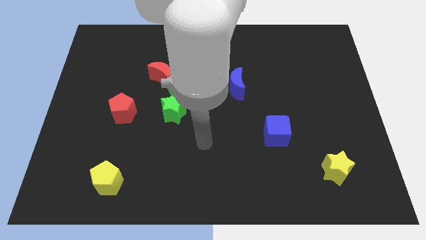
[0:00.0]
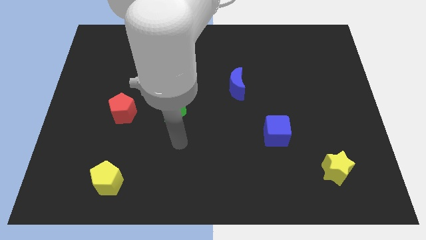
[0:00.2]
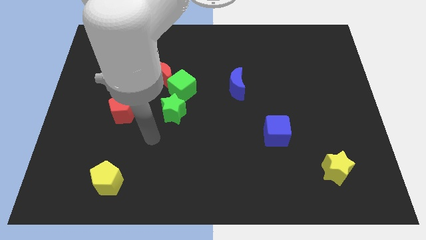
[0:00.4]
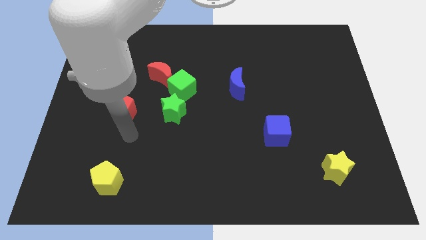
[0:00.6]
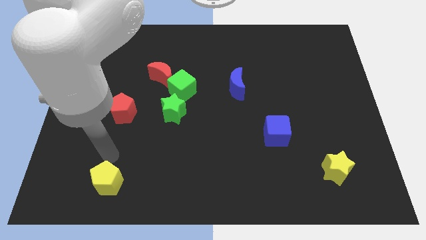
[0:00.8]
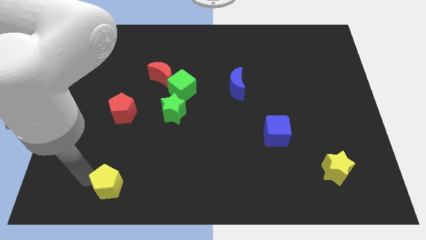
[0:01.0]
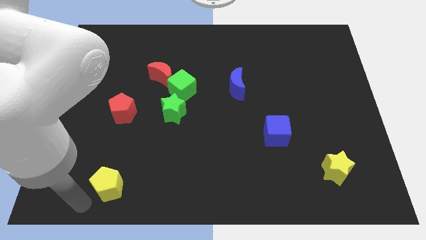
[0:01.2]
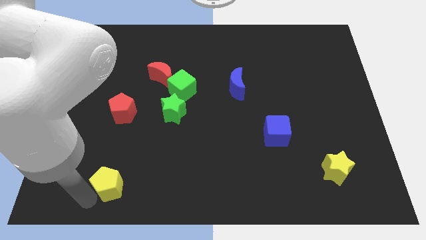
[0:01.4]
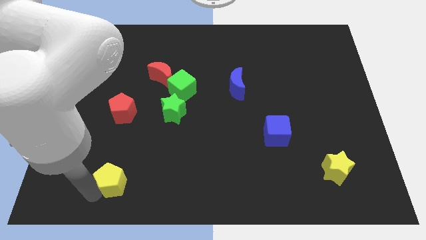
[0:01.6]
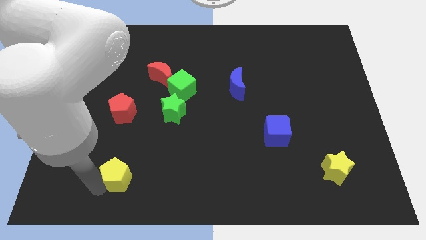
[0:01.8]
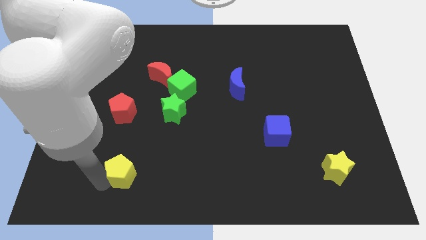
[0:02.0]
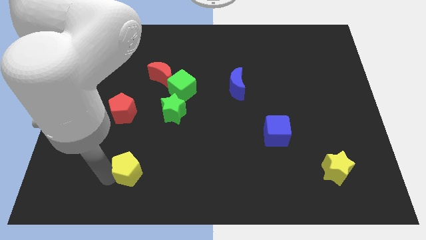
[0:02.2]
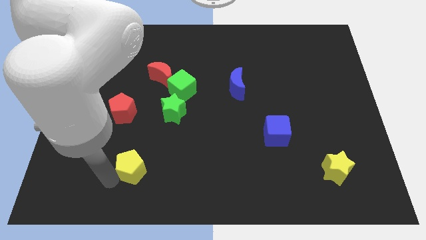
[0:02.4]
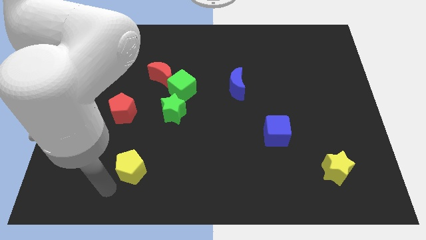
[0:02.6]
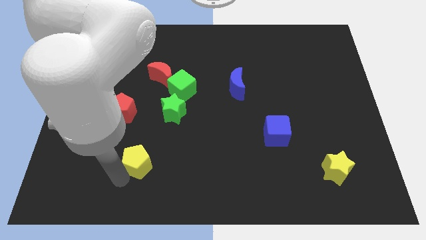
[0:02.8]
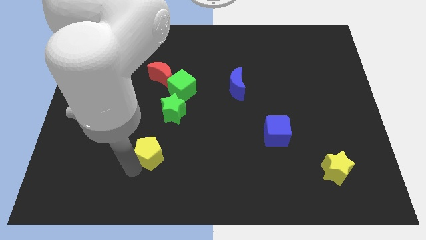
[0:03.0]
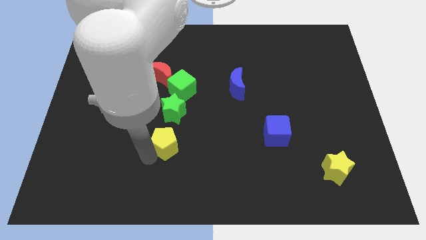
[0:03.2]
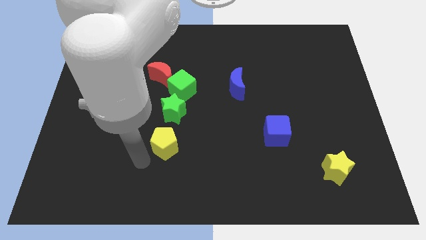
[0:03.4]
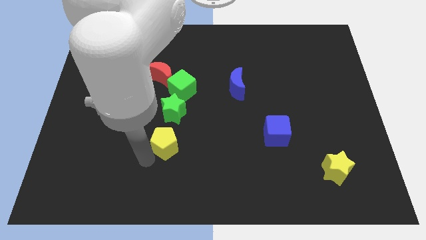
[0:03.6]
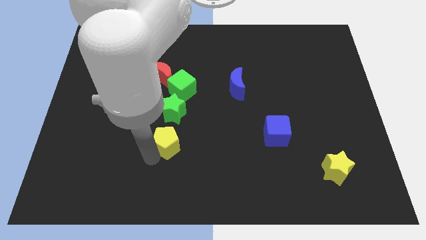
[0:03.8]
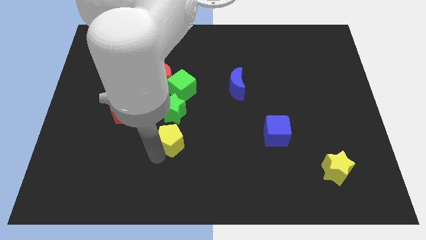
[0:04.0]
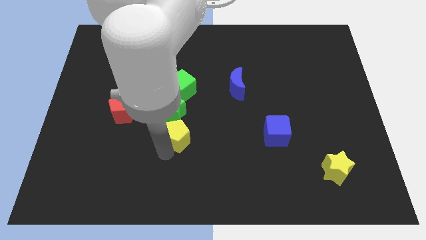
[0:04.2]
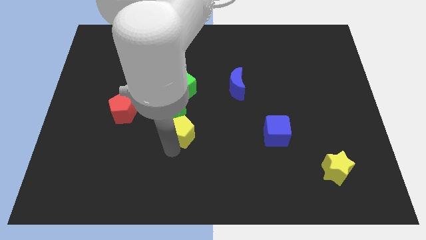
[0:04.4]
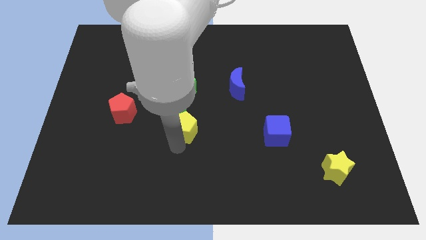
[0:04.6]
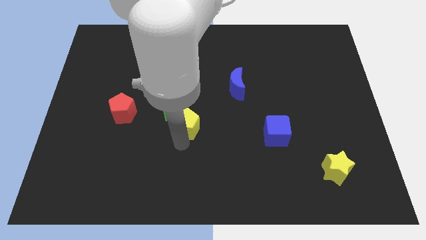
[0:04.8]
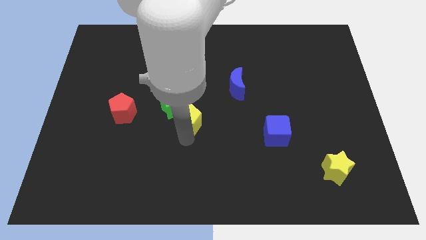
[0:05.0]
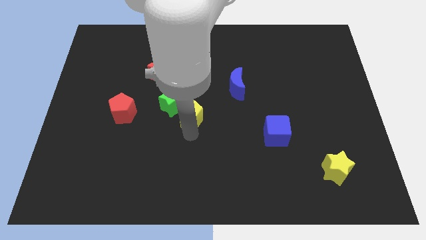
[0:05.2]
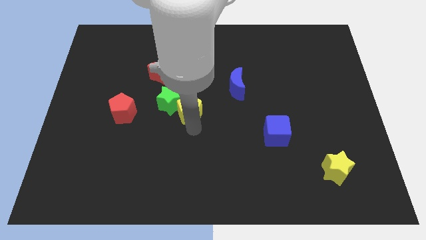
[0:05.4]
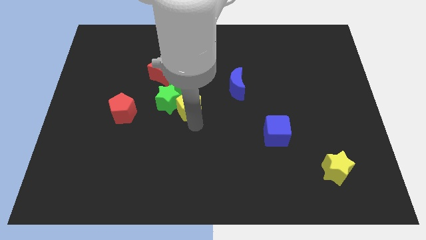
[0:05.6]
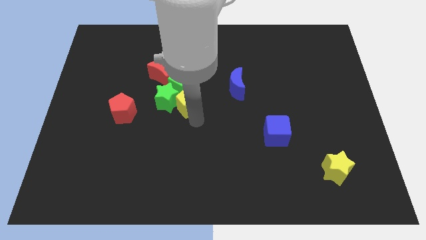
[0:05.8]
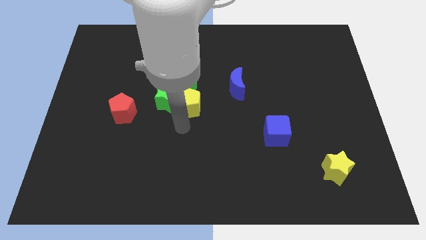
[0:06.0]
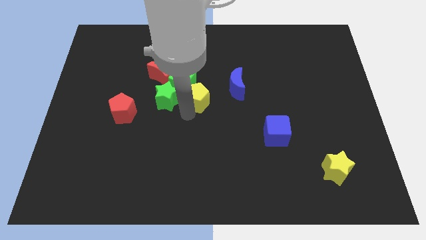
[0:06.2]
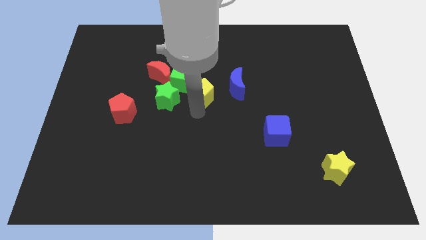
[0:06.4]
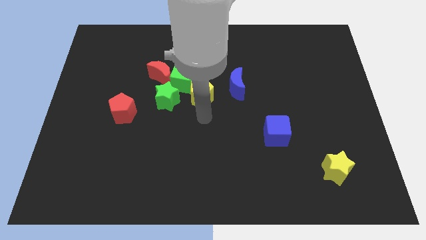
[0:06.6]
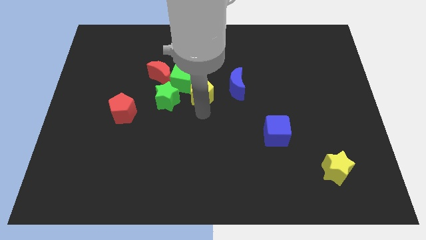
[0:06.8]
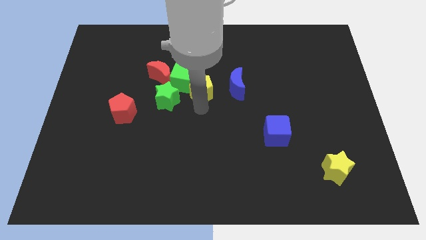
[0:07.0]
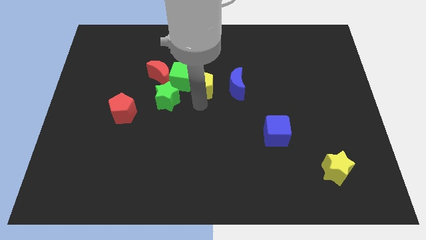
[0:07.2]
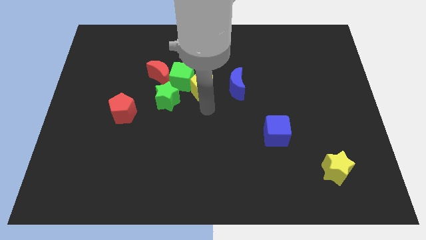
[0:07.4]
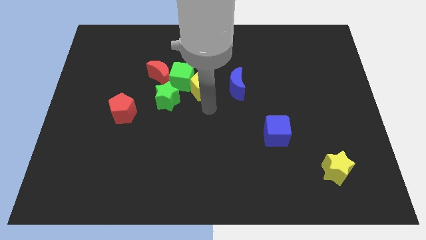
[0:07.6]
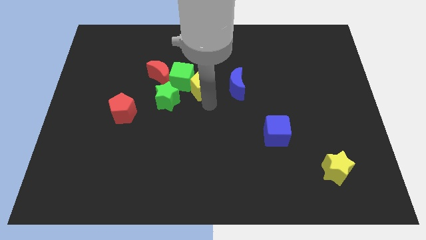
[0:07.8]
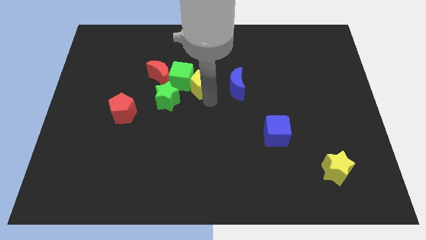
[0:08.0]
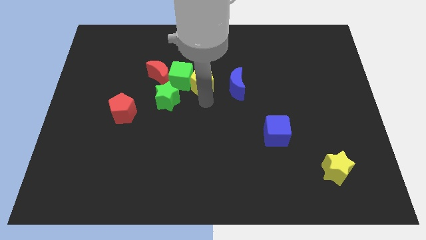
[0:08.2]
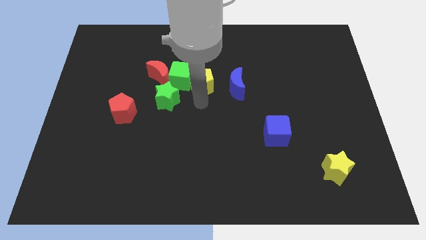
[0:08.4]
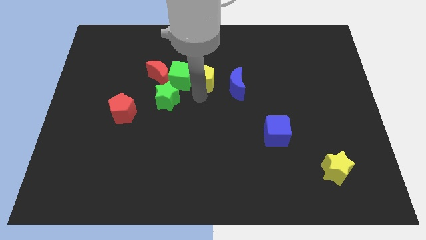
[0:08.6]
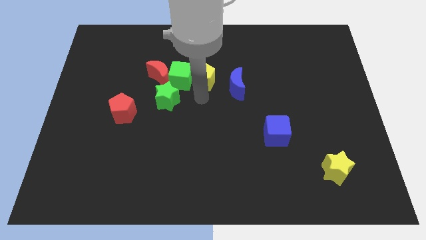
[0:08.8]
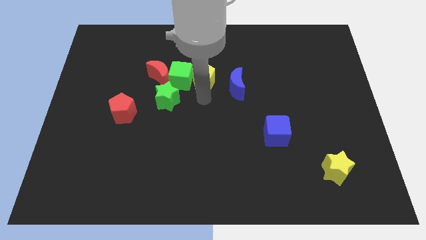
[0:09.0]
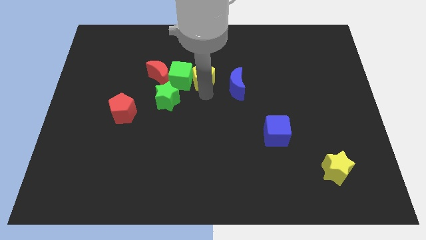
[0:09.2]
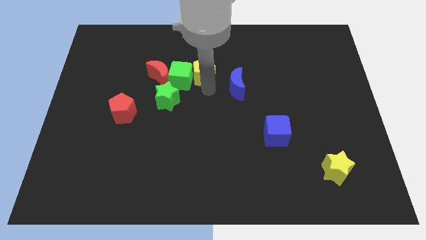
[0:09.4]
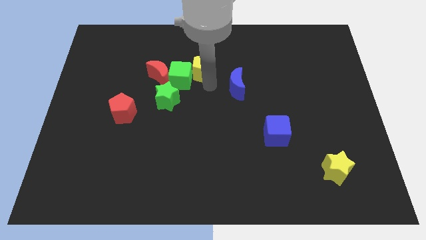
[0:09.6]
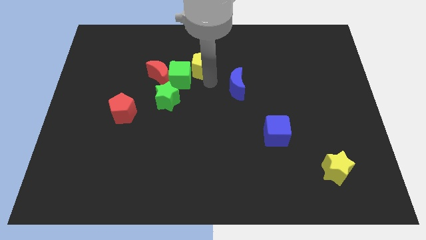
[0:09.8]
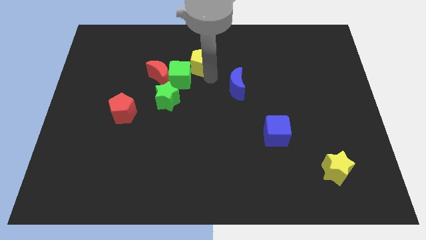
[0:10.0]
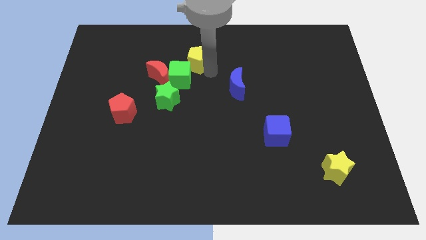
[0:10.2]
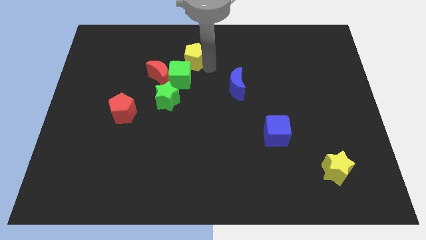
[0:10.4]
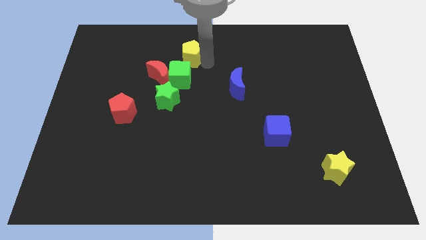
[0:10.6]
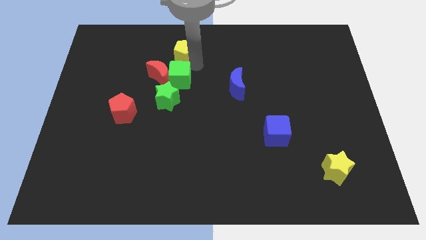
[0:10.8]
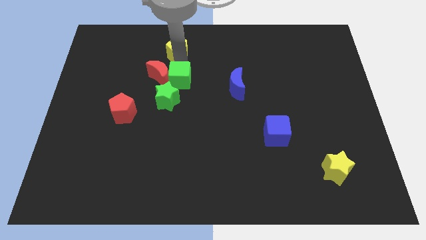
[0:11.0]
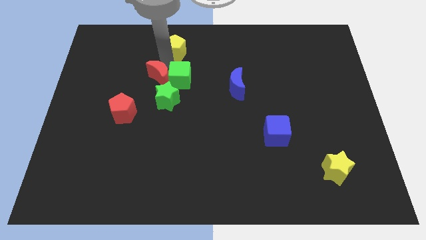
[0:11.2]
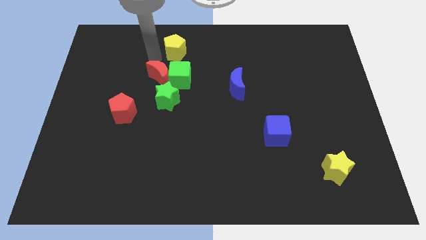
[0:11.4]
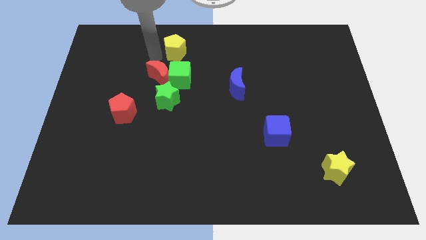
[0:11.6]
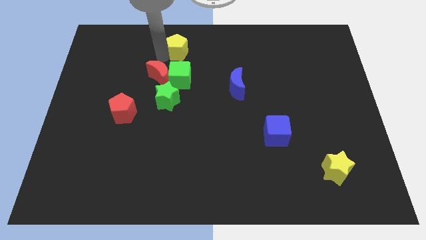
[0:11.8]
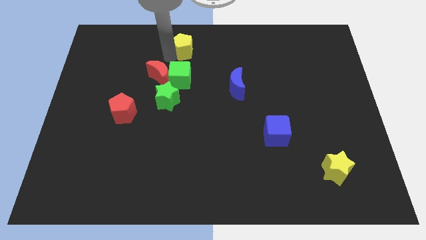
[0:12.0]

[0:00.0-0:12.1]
push the yellow pentagon to the top side

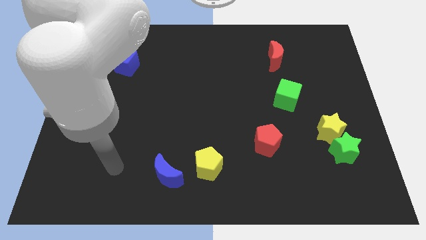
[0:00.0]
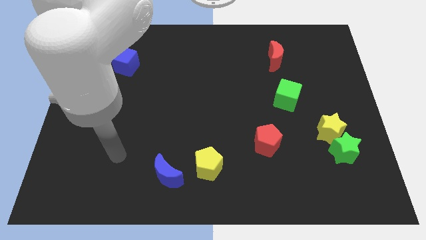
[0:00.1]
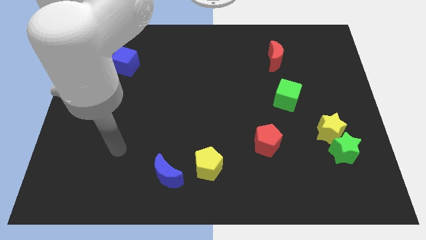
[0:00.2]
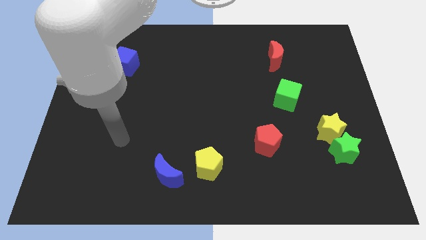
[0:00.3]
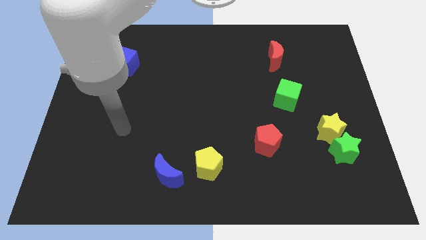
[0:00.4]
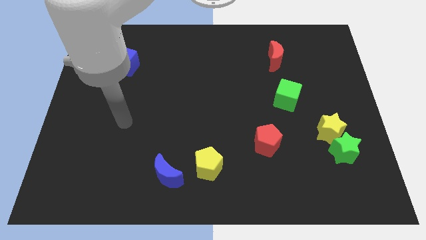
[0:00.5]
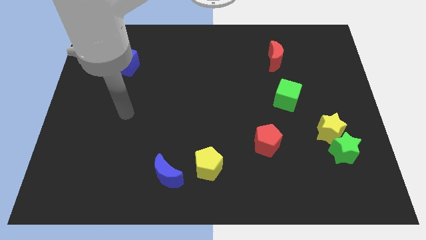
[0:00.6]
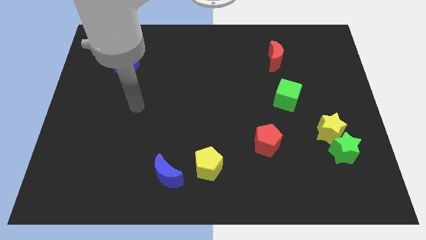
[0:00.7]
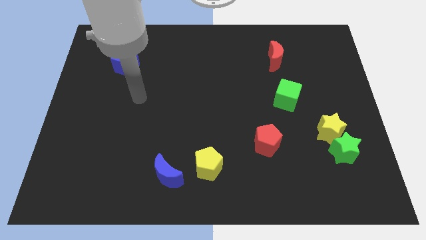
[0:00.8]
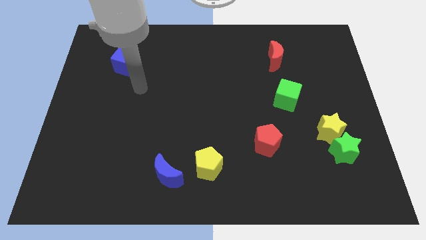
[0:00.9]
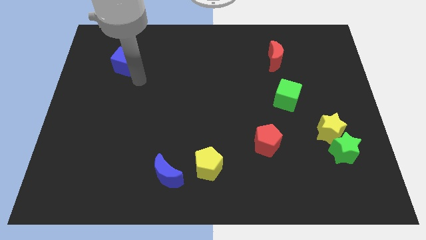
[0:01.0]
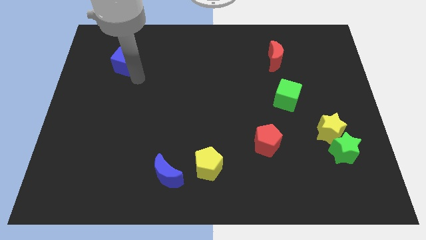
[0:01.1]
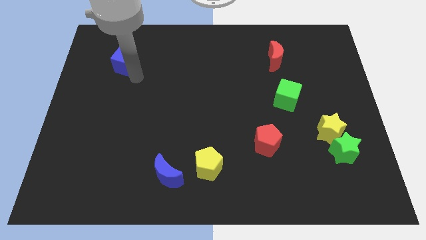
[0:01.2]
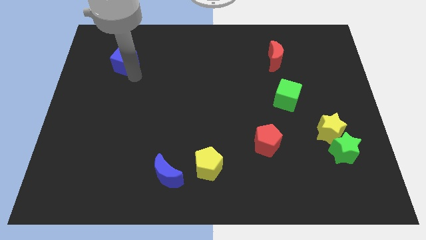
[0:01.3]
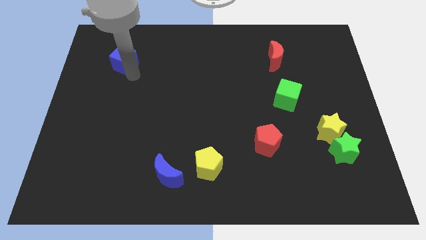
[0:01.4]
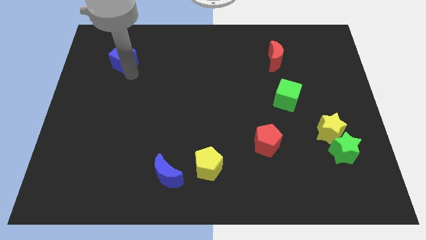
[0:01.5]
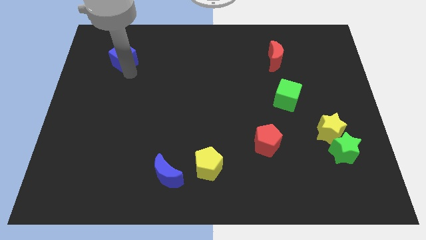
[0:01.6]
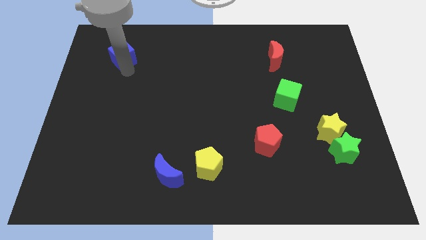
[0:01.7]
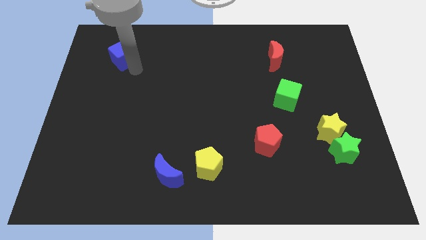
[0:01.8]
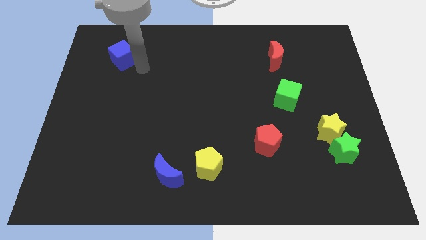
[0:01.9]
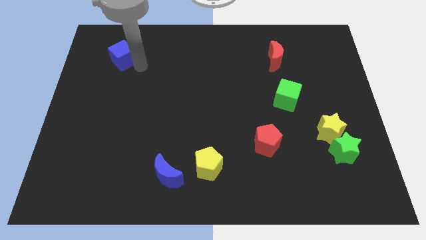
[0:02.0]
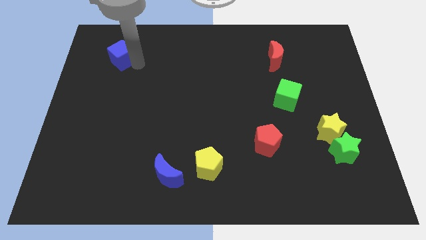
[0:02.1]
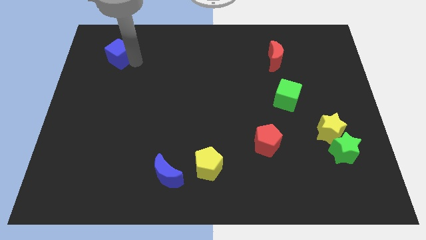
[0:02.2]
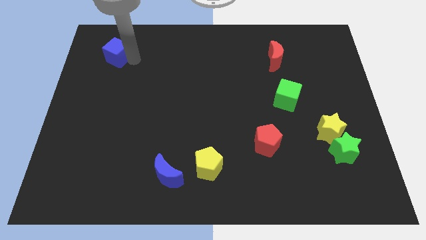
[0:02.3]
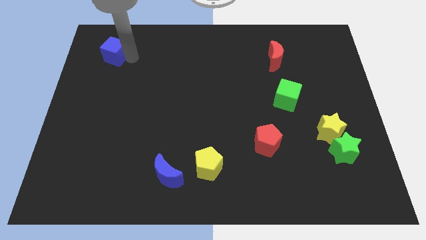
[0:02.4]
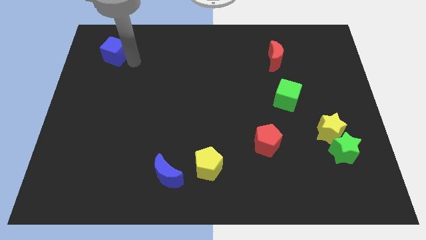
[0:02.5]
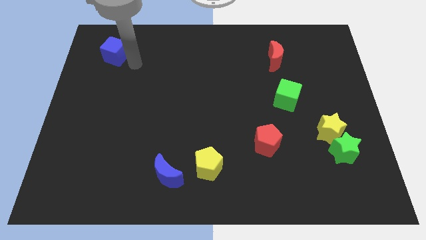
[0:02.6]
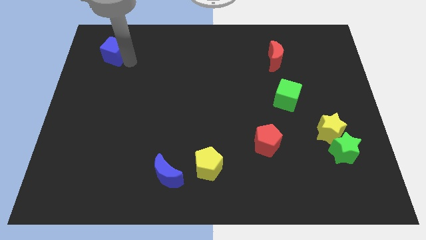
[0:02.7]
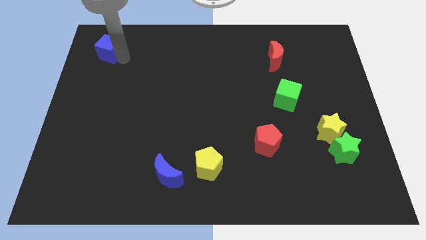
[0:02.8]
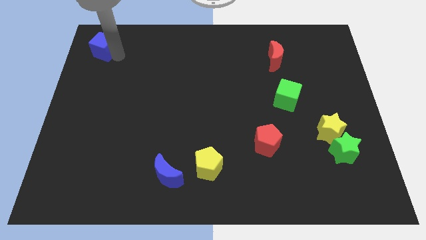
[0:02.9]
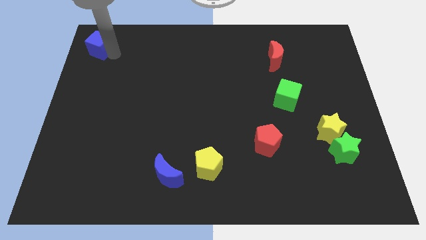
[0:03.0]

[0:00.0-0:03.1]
put the blue cube to the top left corner
